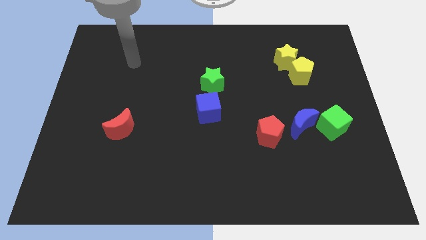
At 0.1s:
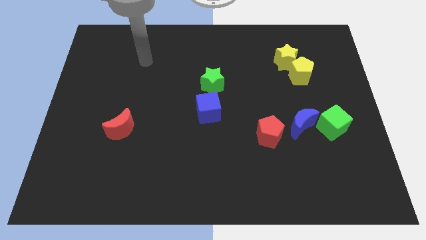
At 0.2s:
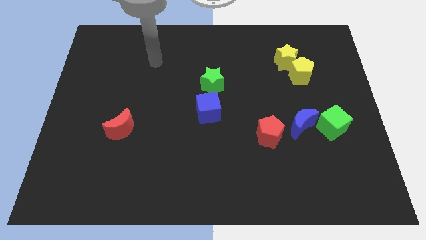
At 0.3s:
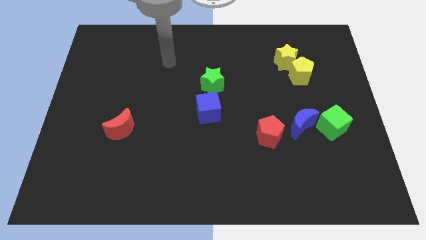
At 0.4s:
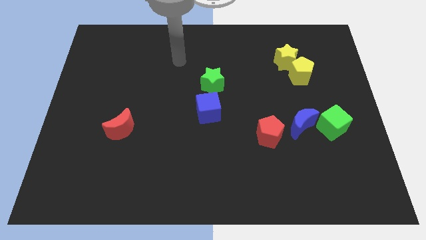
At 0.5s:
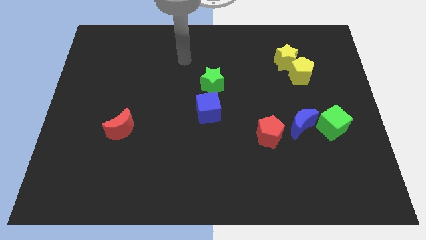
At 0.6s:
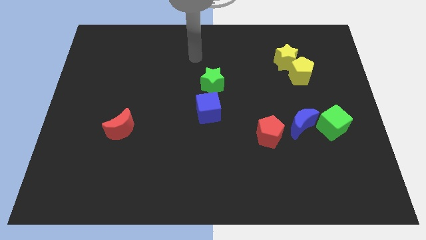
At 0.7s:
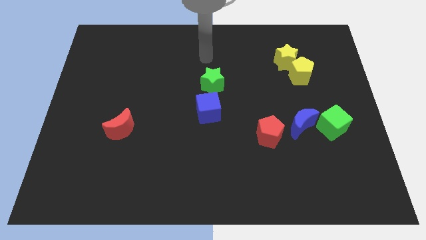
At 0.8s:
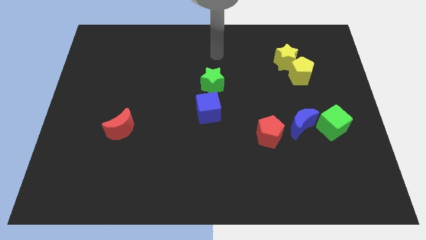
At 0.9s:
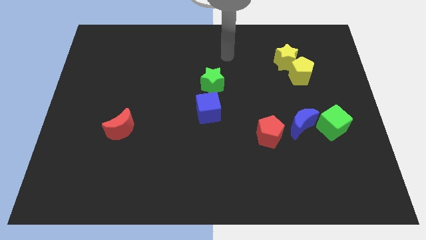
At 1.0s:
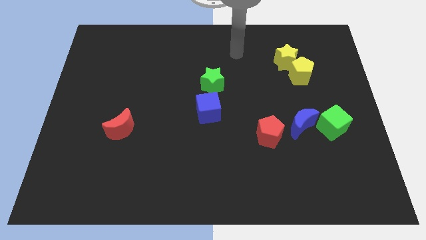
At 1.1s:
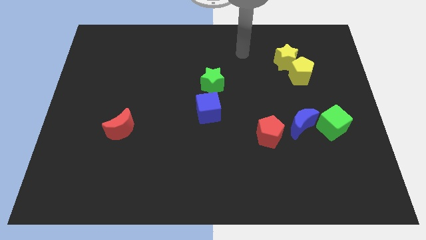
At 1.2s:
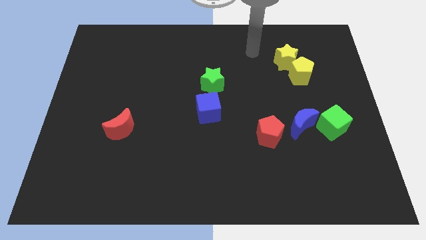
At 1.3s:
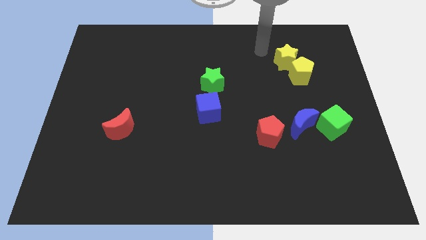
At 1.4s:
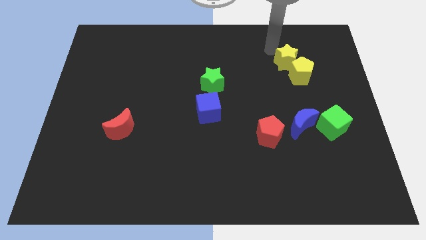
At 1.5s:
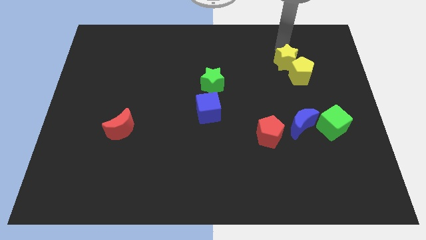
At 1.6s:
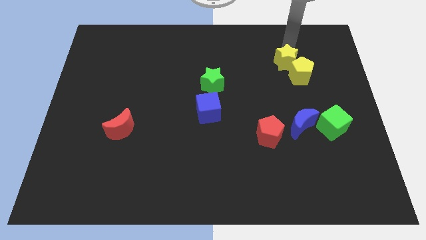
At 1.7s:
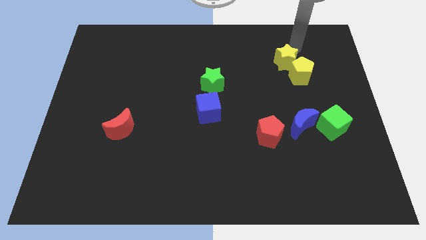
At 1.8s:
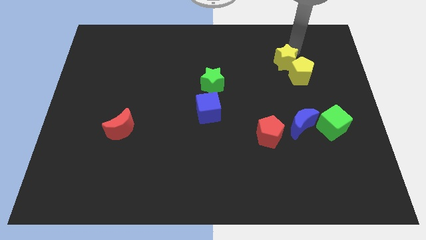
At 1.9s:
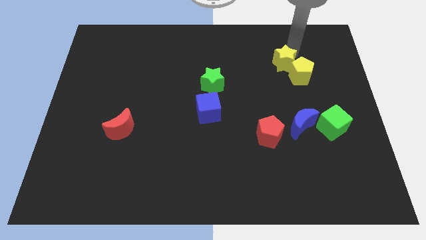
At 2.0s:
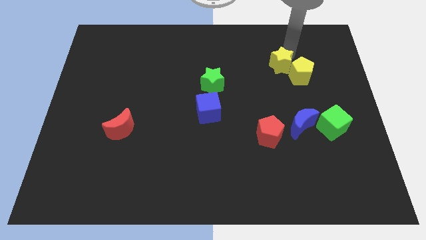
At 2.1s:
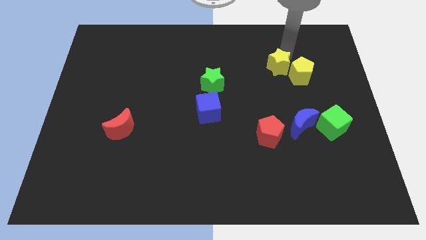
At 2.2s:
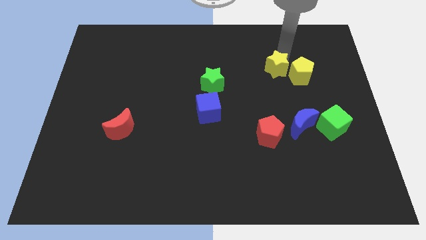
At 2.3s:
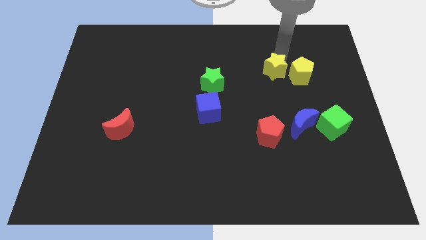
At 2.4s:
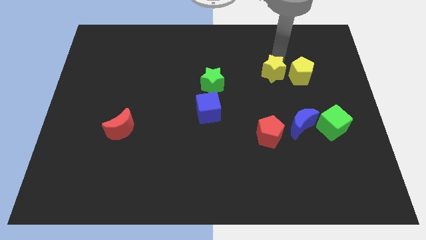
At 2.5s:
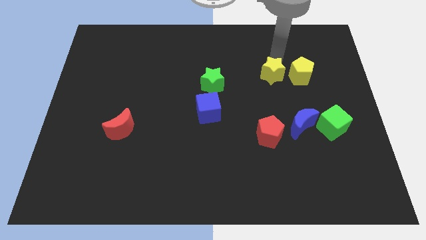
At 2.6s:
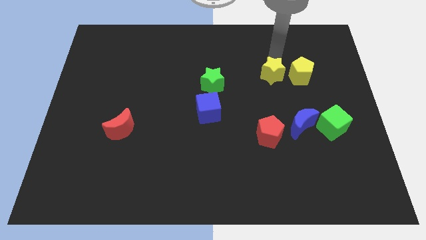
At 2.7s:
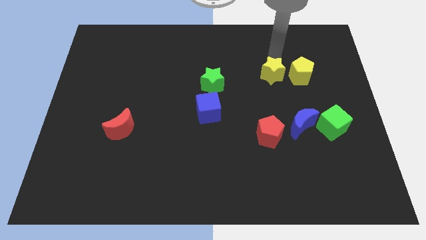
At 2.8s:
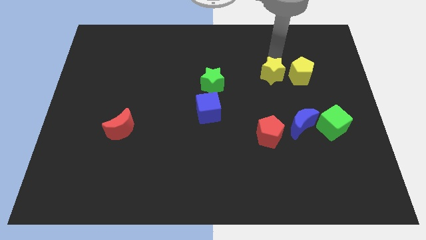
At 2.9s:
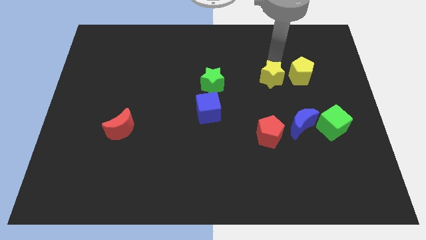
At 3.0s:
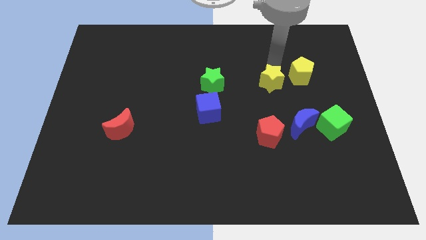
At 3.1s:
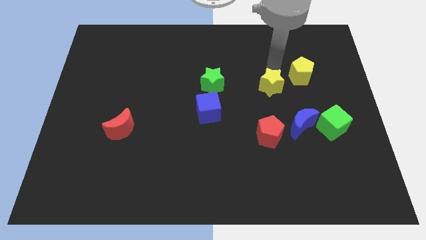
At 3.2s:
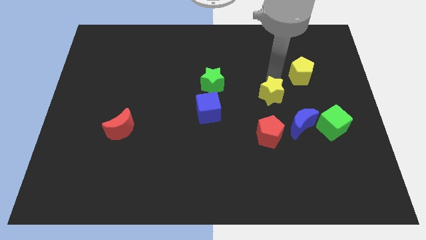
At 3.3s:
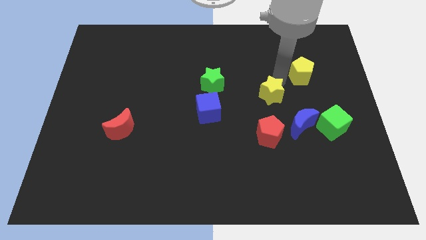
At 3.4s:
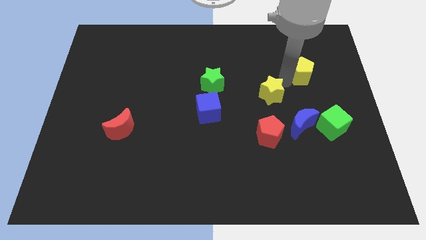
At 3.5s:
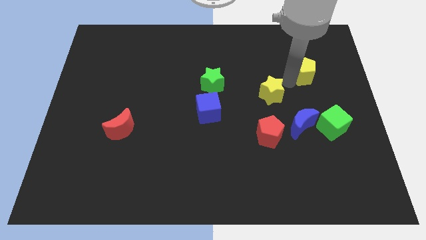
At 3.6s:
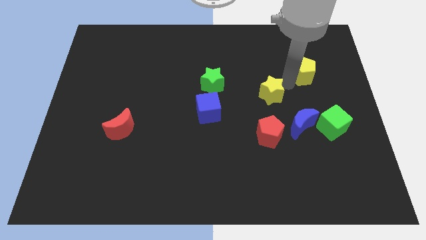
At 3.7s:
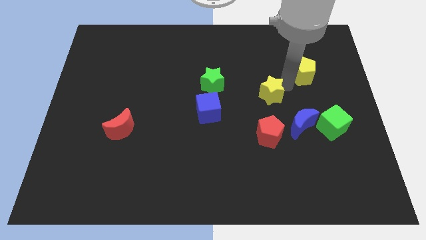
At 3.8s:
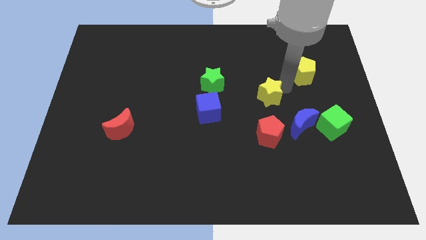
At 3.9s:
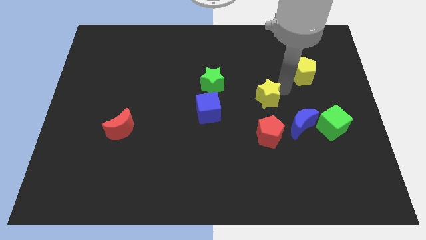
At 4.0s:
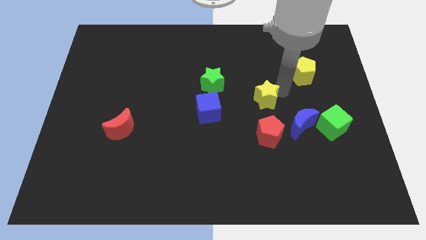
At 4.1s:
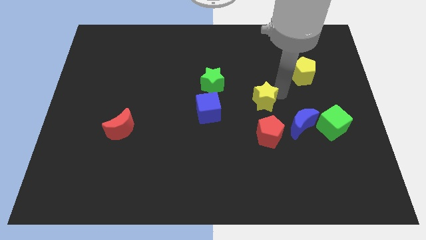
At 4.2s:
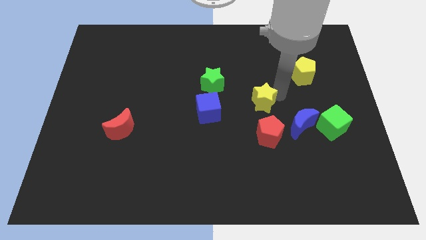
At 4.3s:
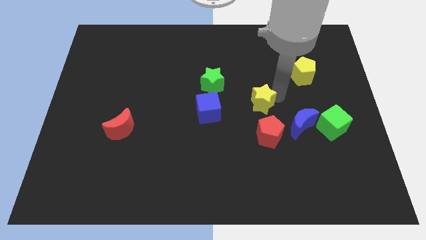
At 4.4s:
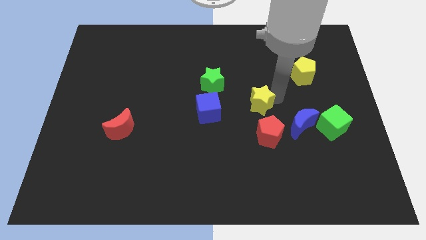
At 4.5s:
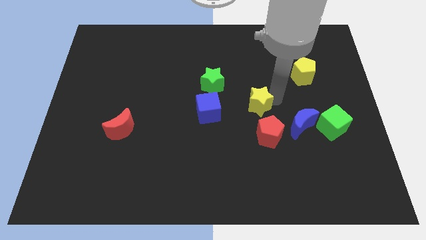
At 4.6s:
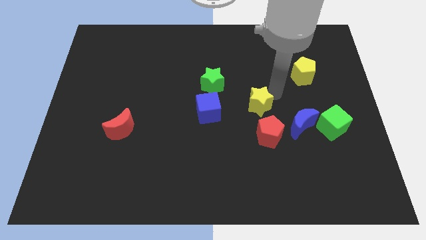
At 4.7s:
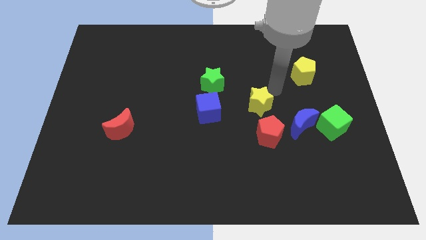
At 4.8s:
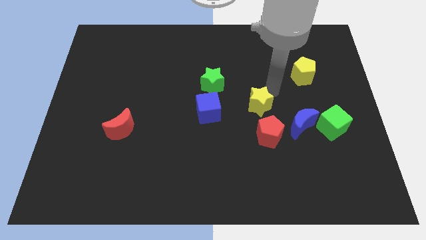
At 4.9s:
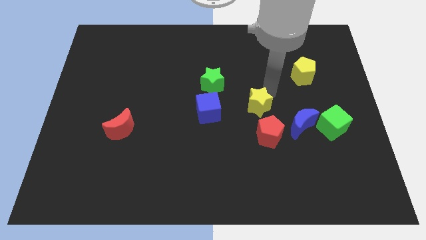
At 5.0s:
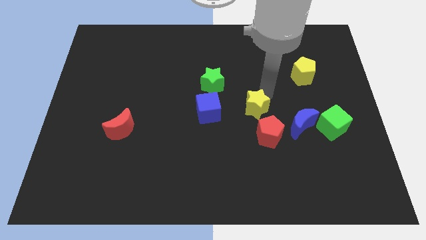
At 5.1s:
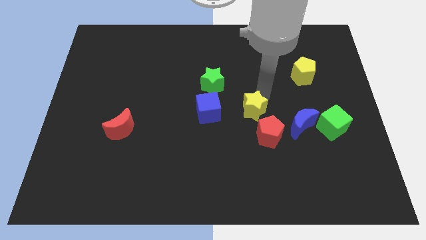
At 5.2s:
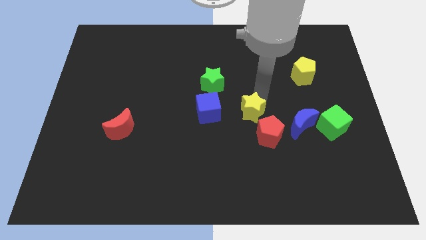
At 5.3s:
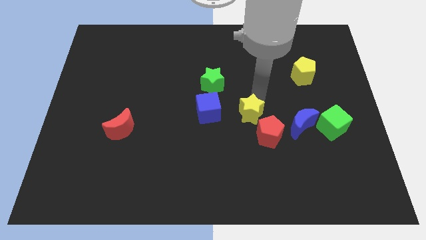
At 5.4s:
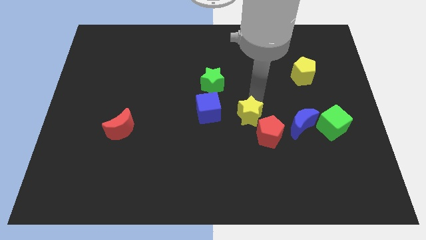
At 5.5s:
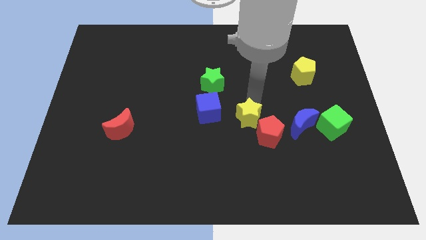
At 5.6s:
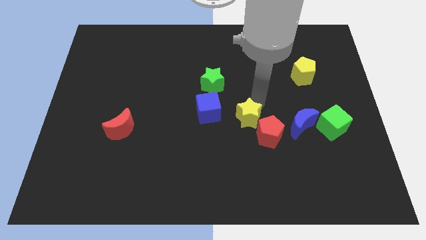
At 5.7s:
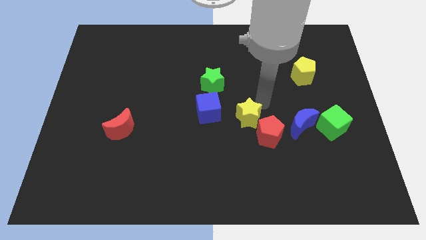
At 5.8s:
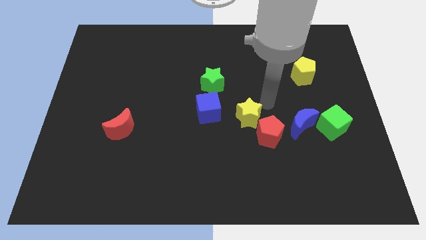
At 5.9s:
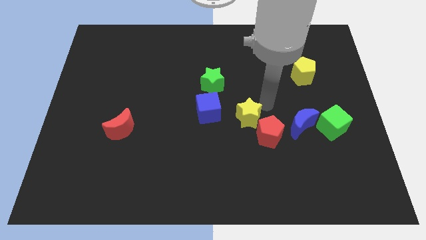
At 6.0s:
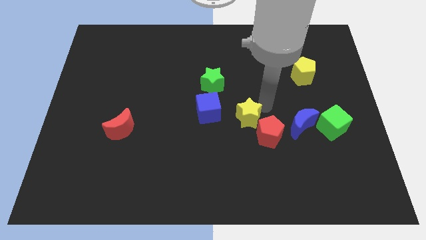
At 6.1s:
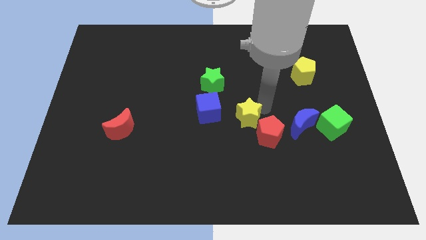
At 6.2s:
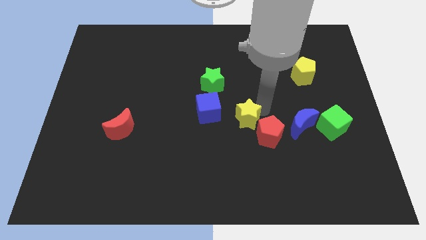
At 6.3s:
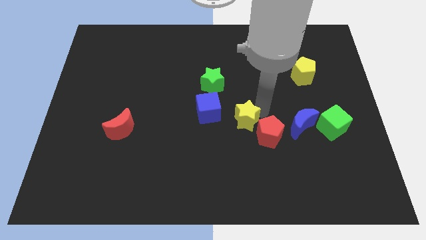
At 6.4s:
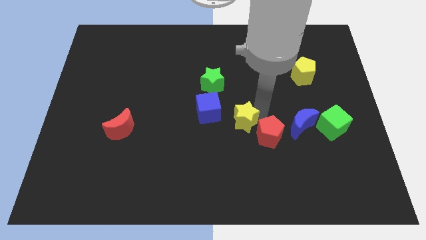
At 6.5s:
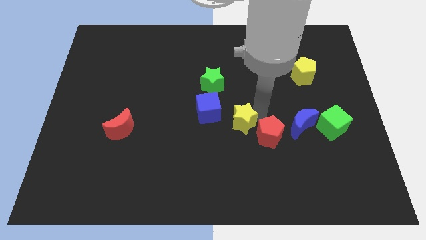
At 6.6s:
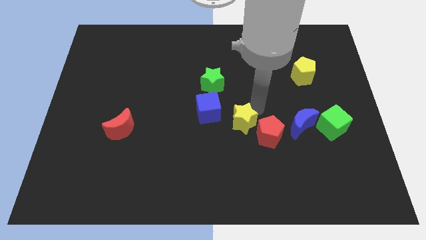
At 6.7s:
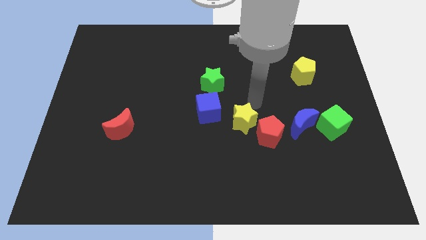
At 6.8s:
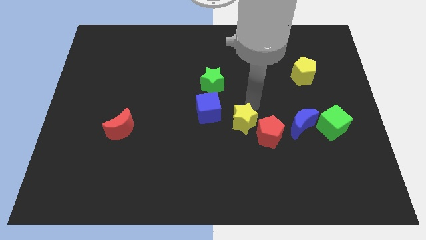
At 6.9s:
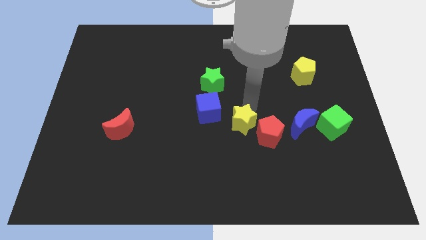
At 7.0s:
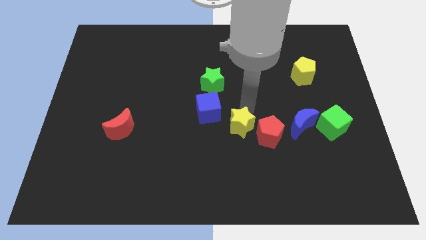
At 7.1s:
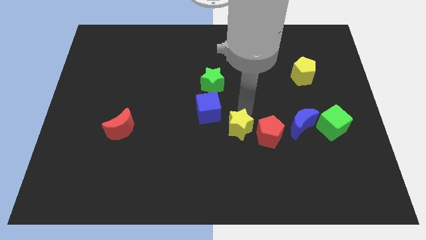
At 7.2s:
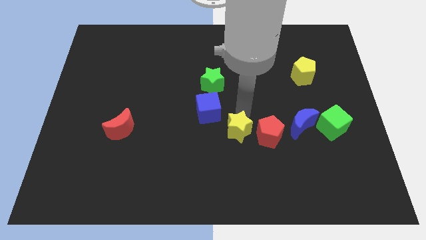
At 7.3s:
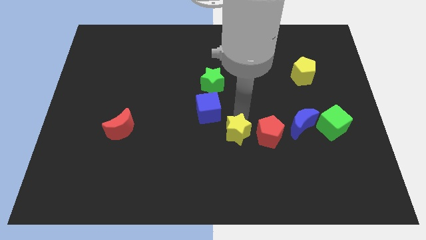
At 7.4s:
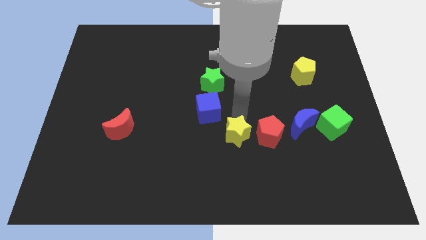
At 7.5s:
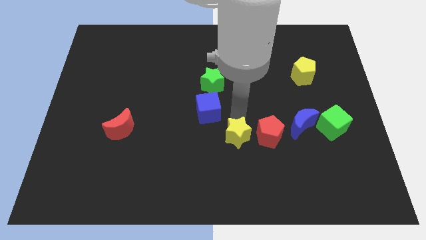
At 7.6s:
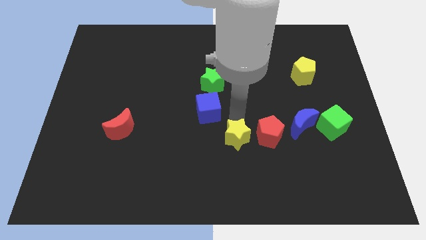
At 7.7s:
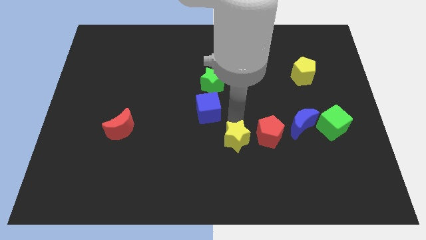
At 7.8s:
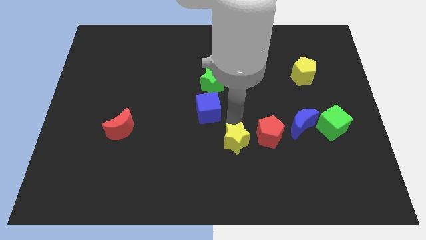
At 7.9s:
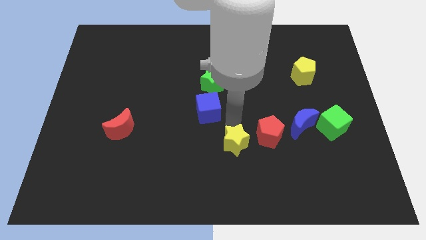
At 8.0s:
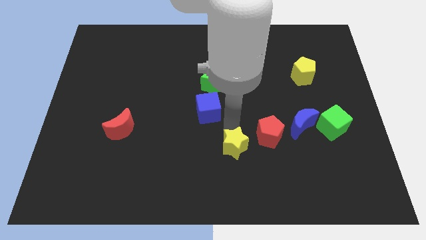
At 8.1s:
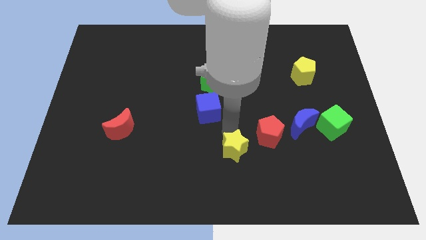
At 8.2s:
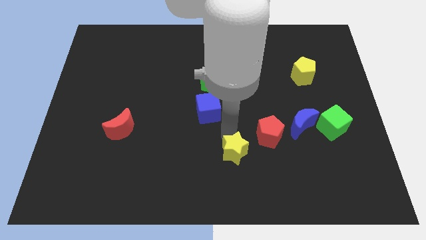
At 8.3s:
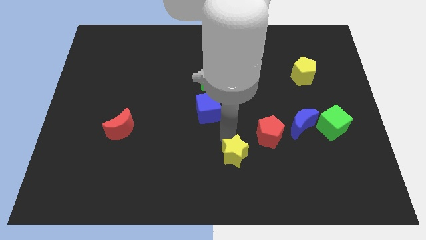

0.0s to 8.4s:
put the yellow star to the bottom
